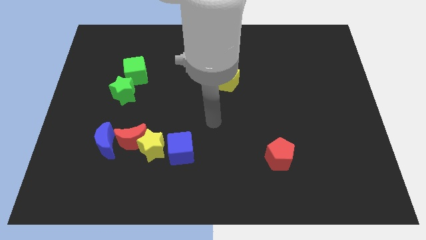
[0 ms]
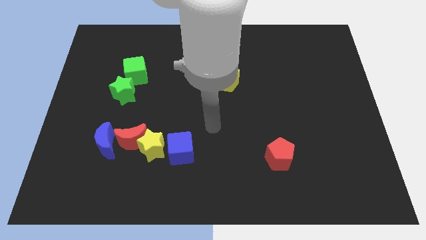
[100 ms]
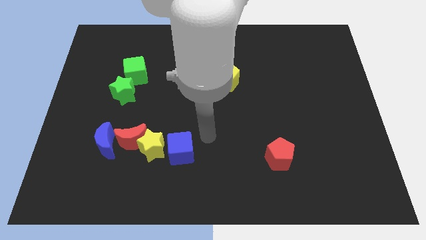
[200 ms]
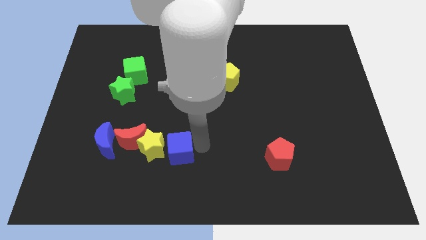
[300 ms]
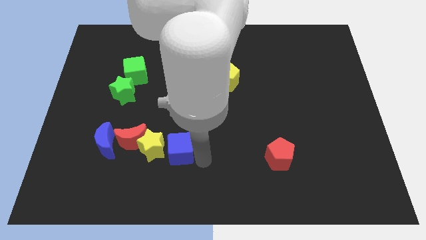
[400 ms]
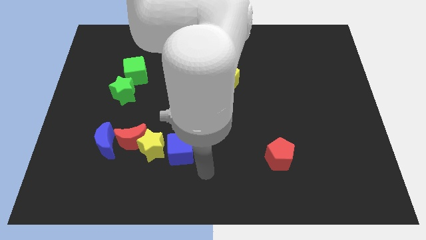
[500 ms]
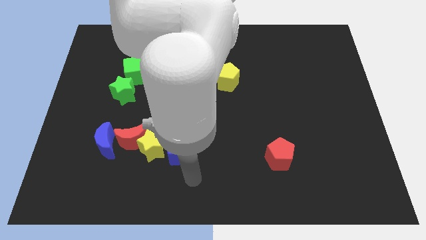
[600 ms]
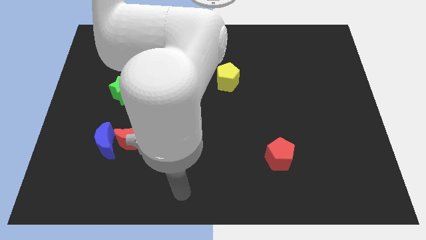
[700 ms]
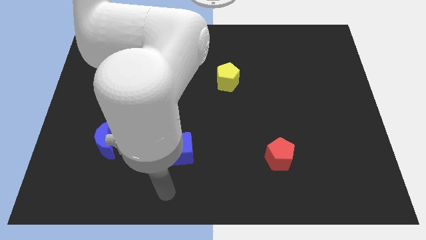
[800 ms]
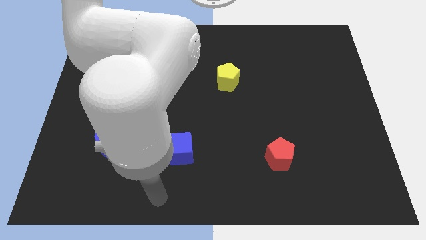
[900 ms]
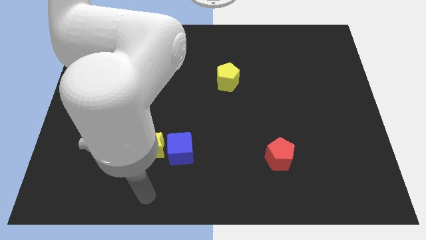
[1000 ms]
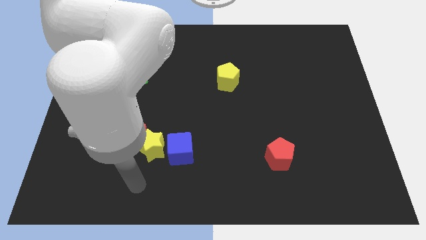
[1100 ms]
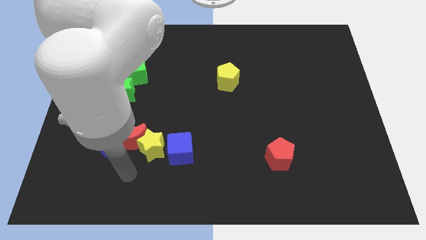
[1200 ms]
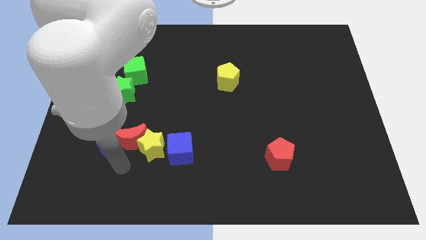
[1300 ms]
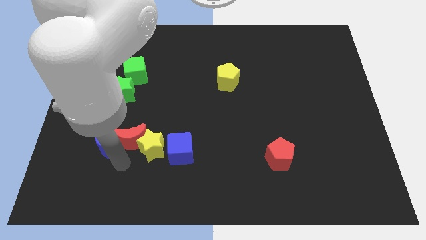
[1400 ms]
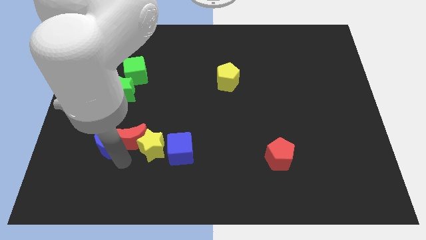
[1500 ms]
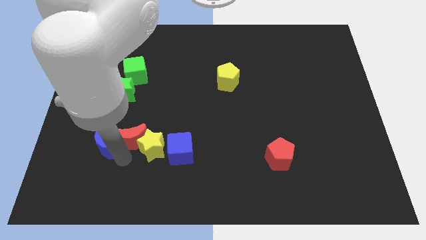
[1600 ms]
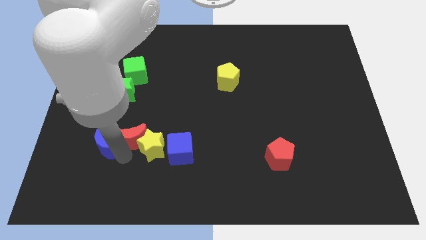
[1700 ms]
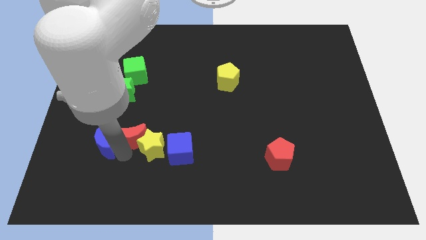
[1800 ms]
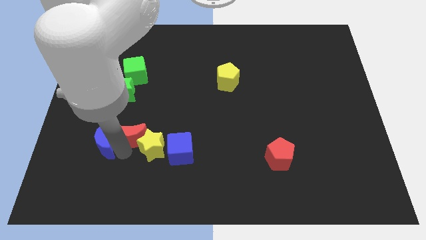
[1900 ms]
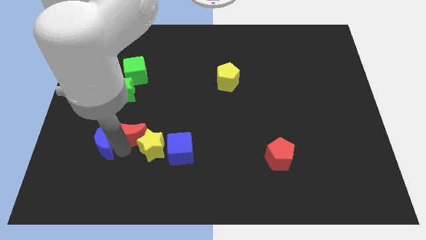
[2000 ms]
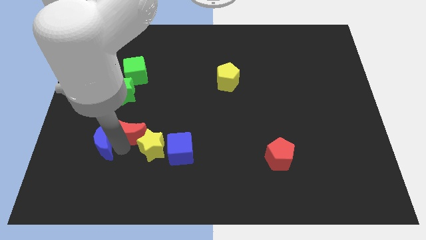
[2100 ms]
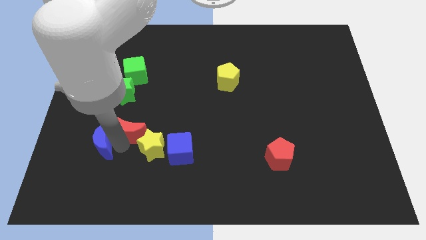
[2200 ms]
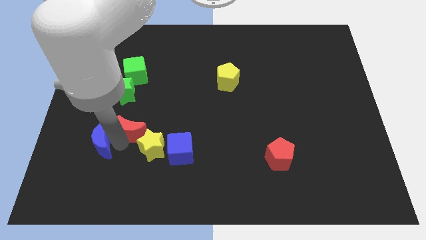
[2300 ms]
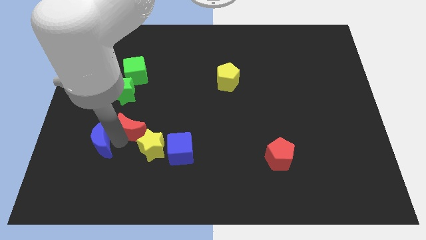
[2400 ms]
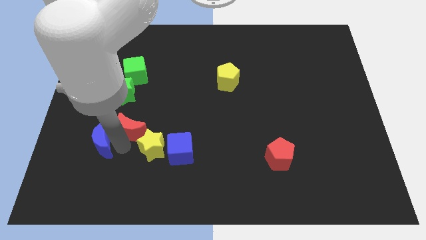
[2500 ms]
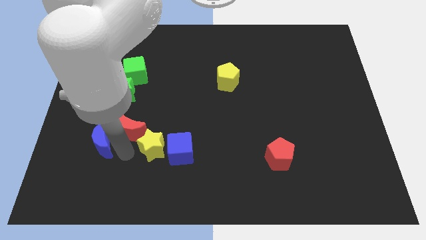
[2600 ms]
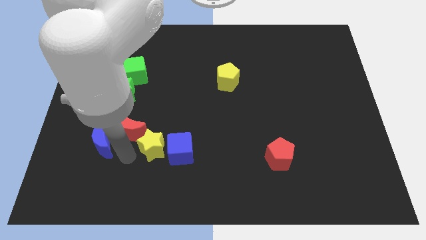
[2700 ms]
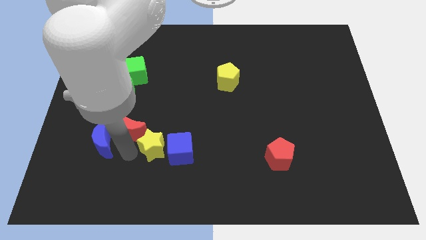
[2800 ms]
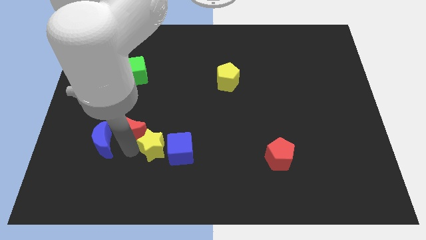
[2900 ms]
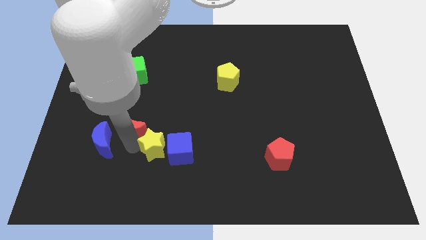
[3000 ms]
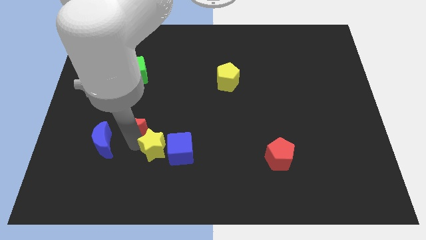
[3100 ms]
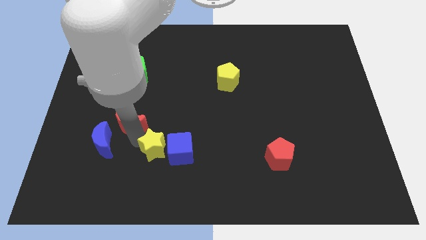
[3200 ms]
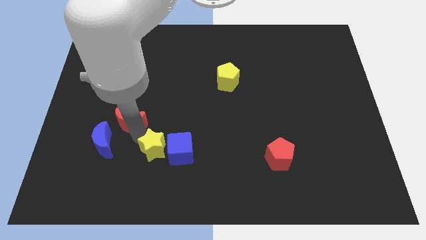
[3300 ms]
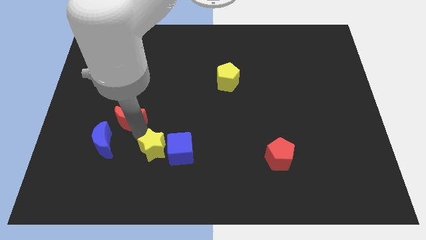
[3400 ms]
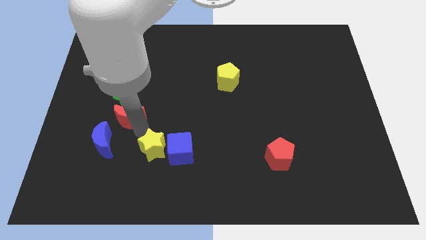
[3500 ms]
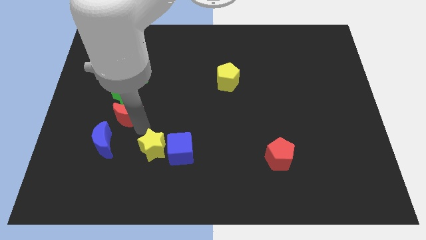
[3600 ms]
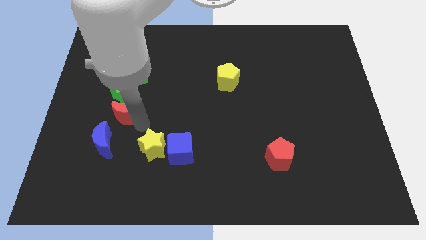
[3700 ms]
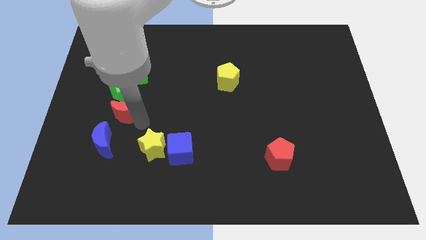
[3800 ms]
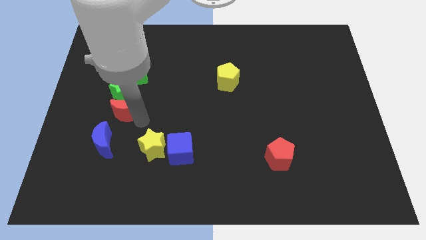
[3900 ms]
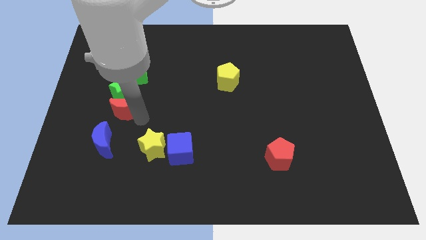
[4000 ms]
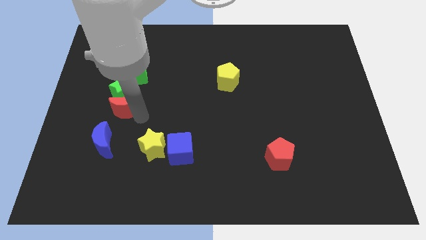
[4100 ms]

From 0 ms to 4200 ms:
pull the red moon apart from the yellow star and blue moon

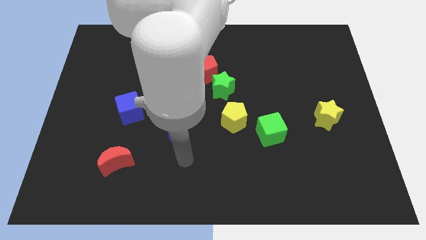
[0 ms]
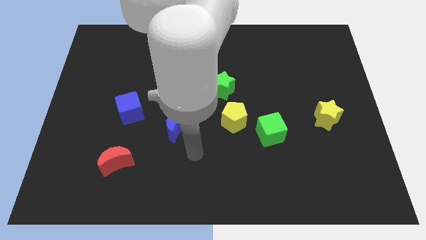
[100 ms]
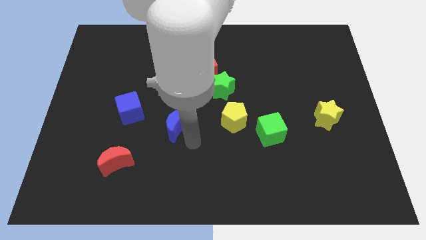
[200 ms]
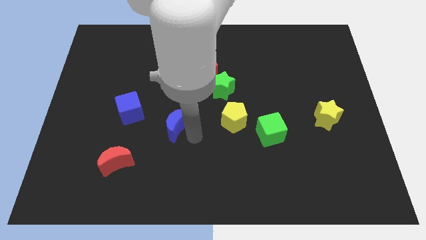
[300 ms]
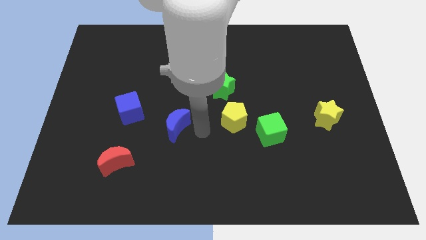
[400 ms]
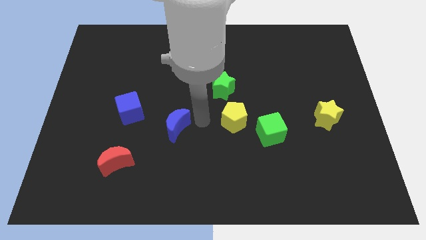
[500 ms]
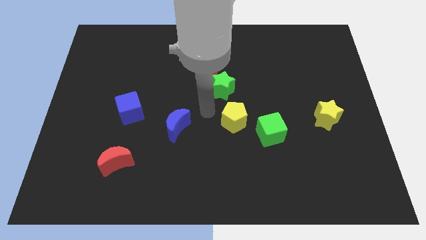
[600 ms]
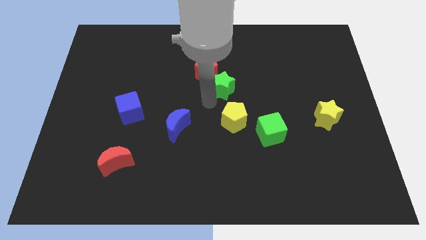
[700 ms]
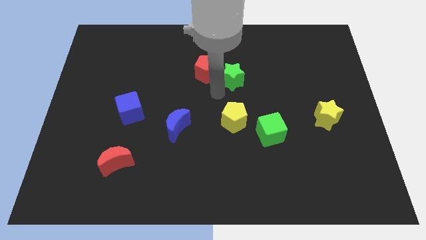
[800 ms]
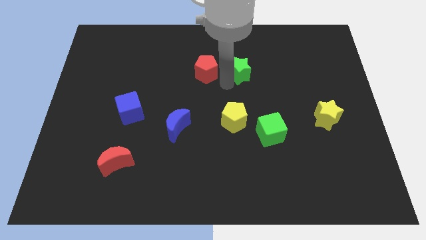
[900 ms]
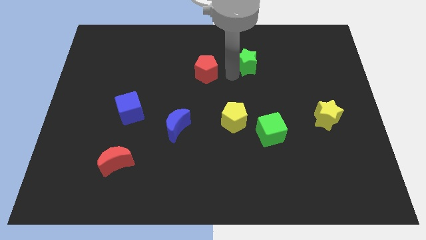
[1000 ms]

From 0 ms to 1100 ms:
move the red pentagon away from the green star

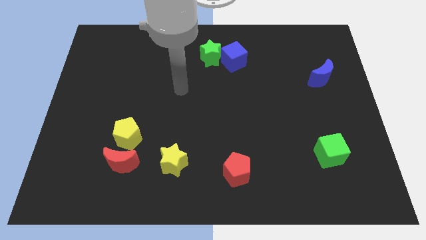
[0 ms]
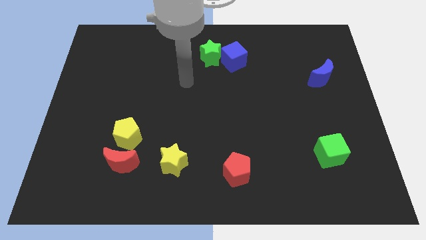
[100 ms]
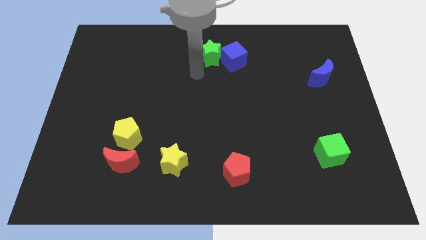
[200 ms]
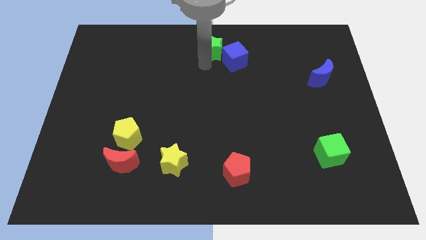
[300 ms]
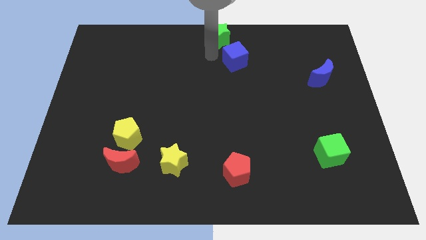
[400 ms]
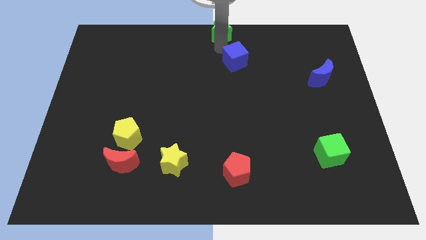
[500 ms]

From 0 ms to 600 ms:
pull the blue cube apart from the green star

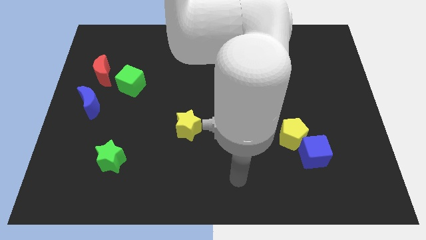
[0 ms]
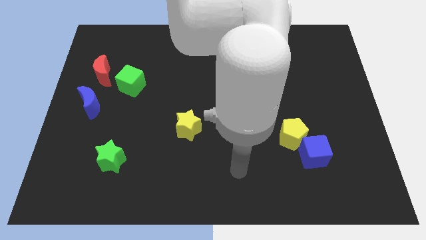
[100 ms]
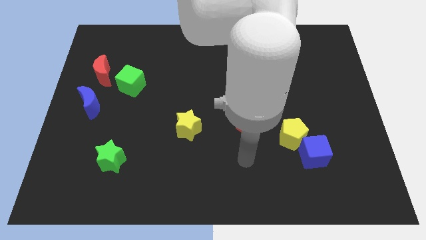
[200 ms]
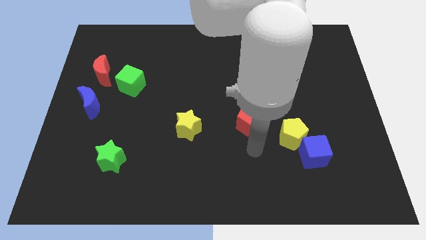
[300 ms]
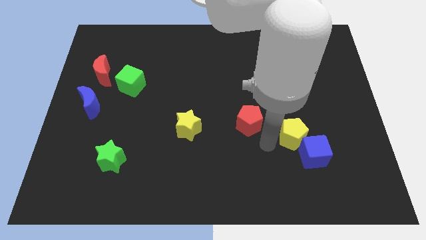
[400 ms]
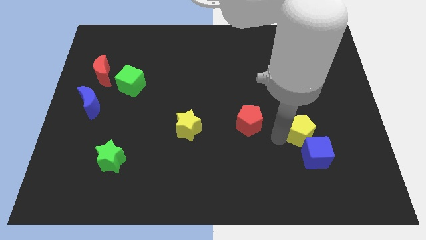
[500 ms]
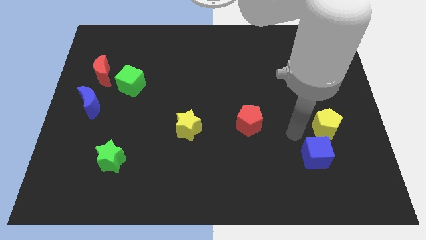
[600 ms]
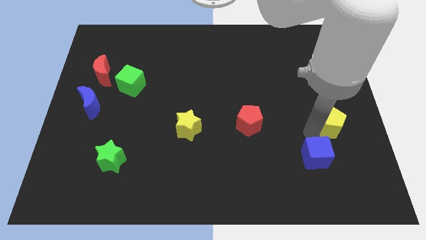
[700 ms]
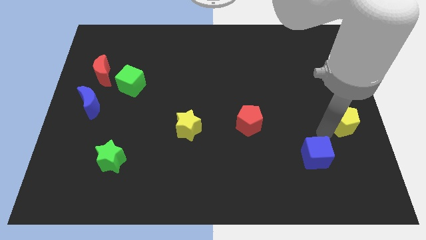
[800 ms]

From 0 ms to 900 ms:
pull the blue cube apart from the yellow pentagon

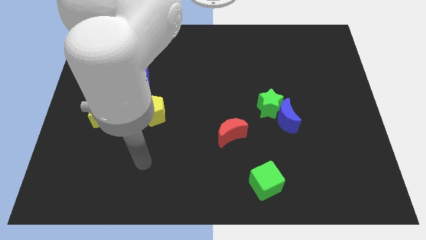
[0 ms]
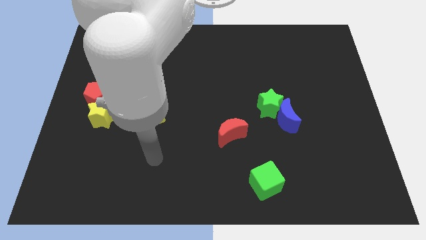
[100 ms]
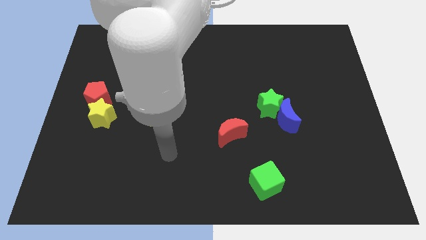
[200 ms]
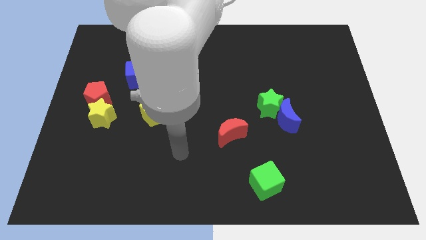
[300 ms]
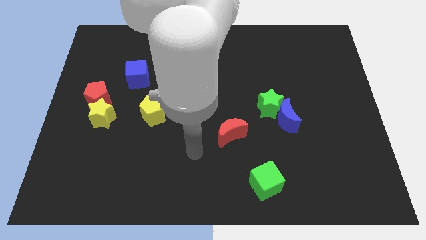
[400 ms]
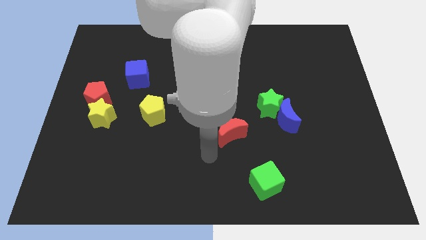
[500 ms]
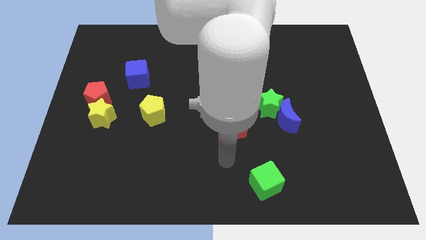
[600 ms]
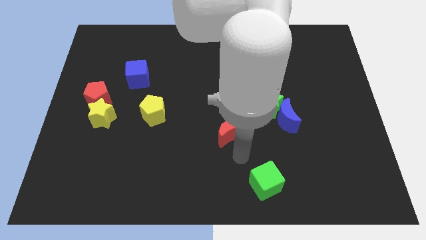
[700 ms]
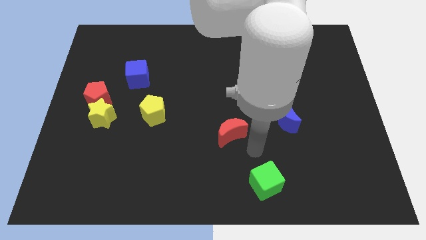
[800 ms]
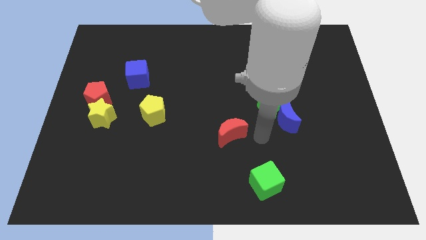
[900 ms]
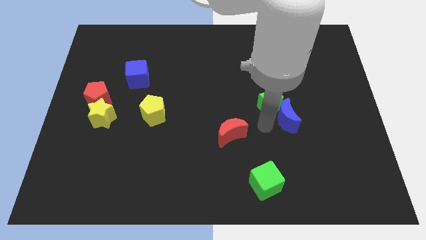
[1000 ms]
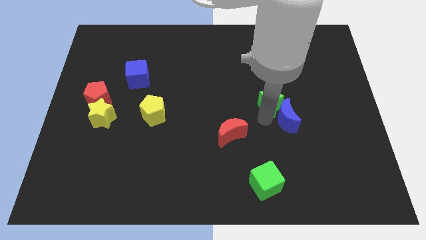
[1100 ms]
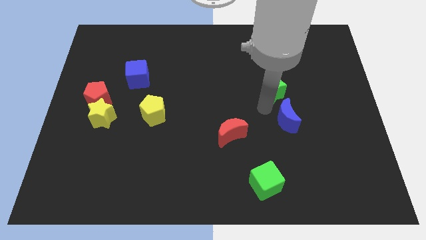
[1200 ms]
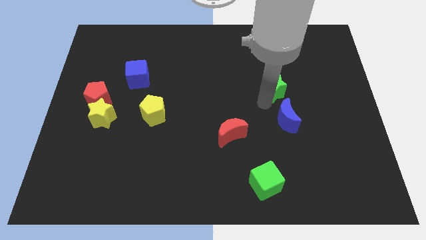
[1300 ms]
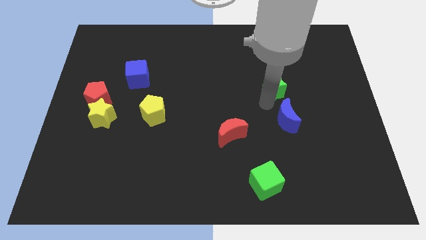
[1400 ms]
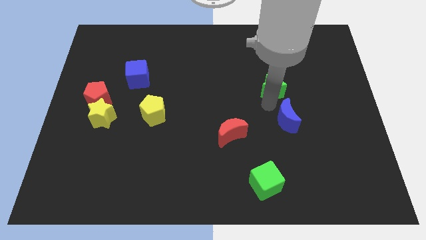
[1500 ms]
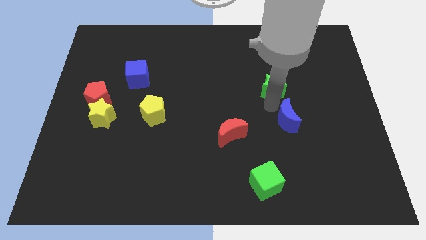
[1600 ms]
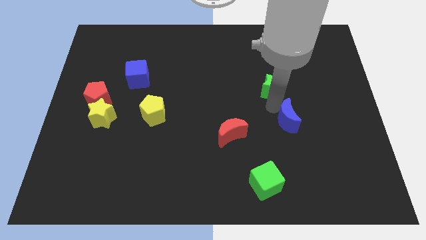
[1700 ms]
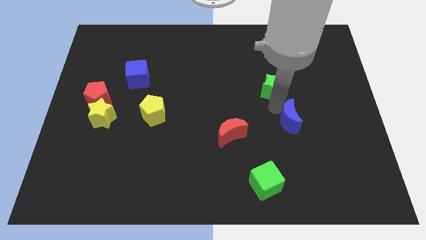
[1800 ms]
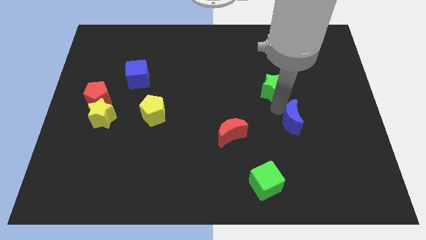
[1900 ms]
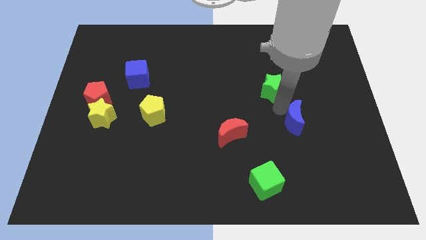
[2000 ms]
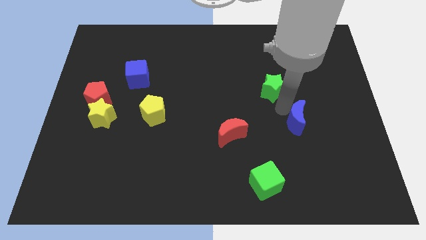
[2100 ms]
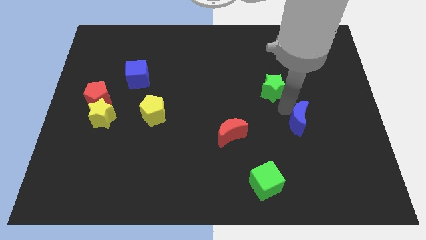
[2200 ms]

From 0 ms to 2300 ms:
move the blue moon away from the green star

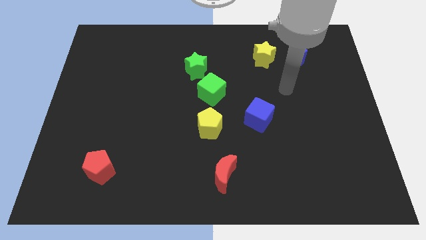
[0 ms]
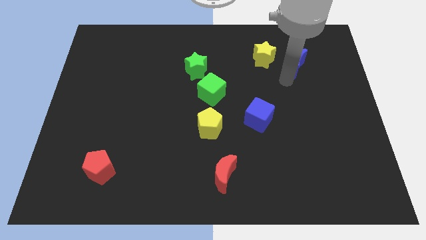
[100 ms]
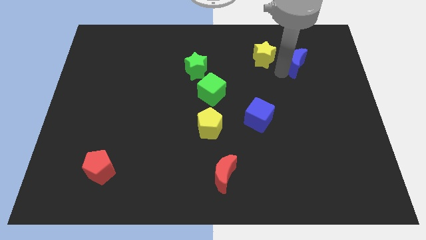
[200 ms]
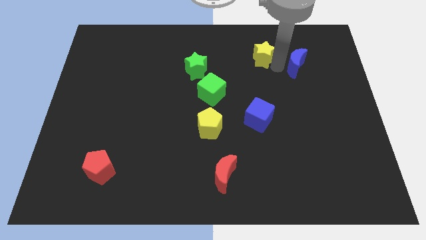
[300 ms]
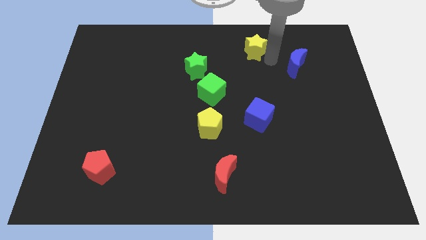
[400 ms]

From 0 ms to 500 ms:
separate the blue moon from the yellow star
